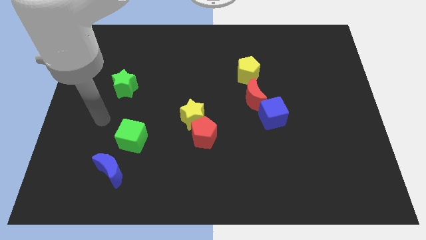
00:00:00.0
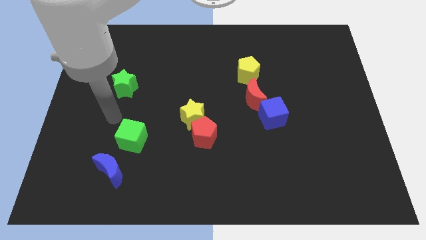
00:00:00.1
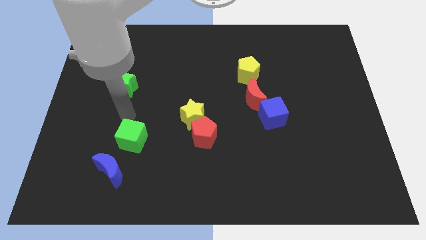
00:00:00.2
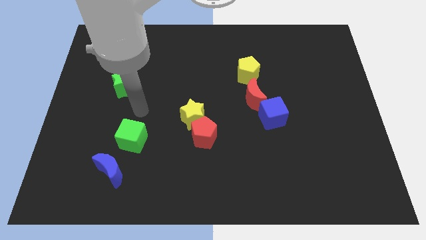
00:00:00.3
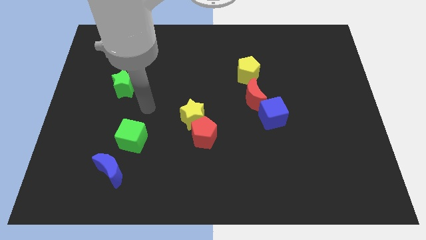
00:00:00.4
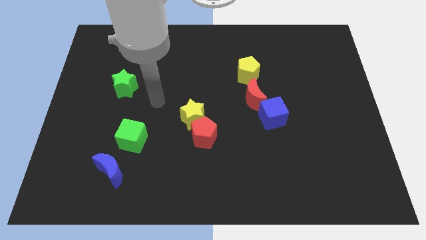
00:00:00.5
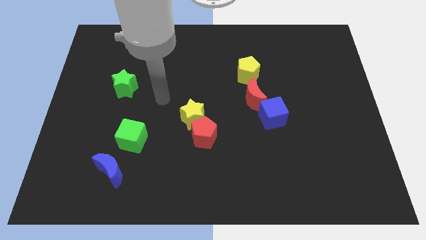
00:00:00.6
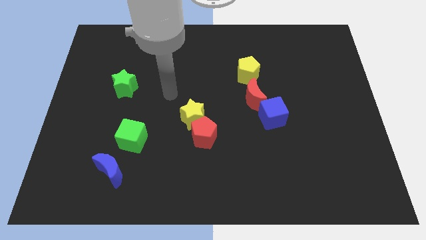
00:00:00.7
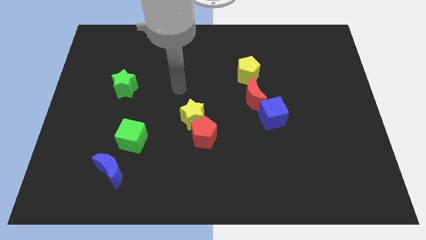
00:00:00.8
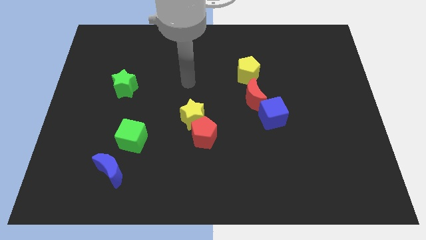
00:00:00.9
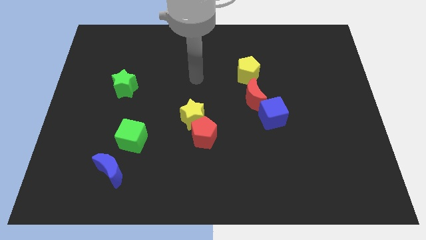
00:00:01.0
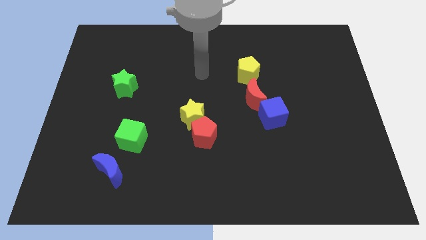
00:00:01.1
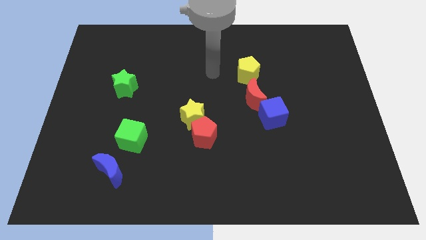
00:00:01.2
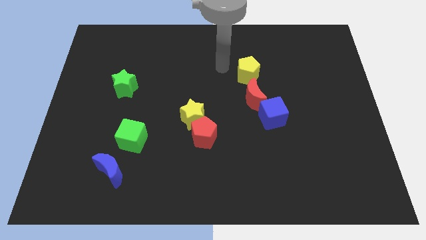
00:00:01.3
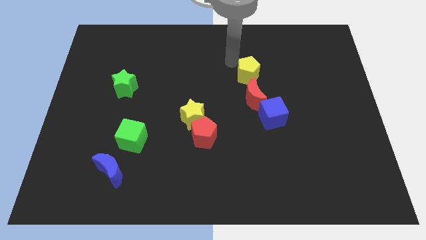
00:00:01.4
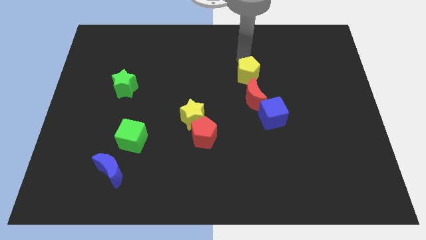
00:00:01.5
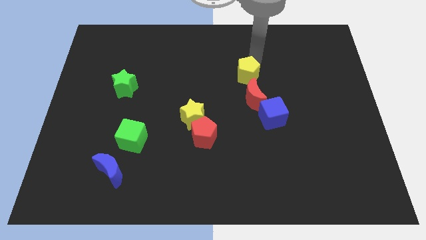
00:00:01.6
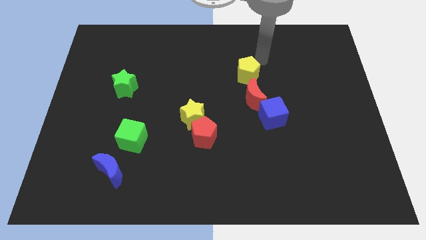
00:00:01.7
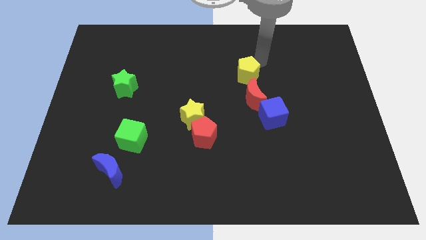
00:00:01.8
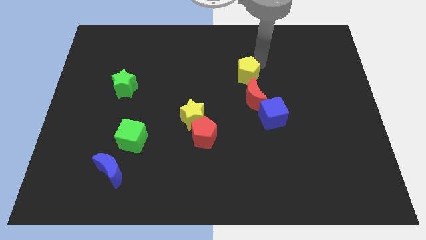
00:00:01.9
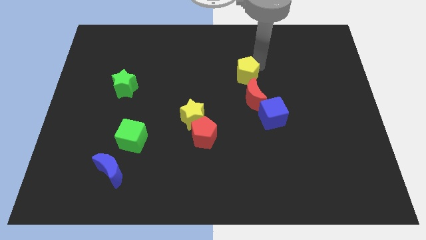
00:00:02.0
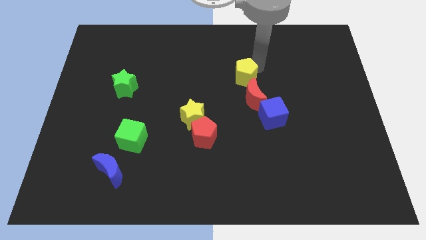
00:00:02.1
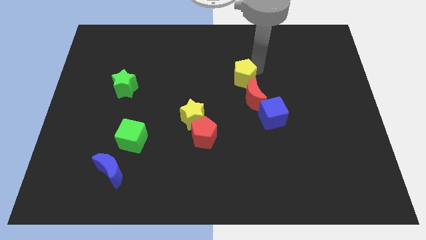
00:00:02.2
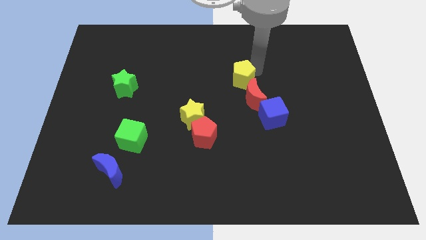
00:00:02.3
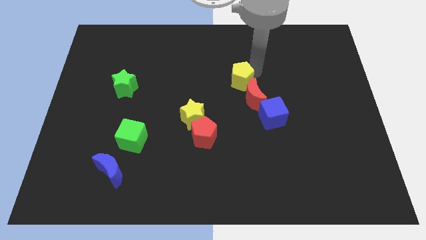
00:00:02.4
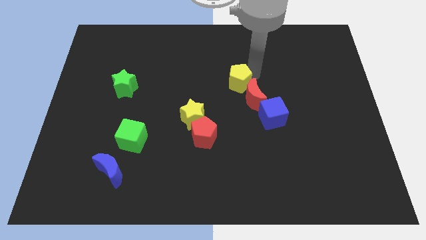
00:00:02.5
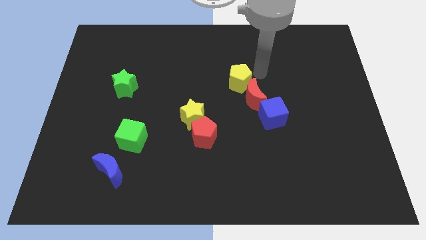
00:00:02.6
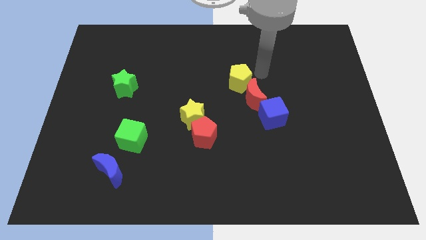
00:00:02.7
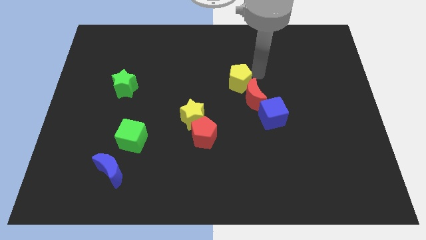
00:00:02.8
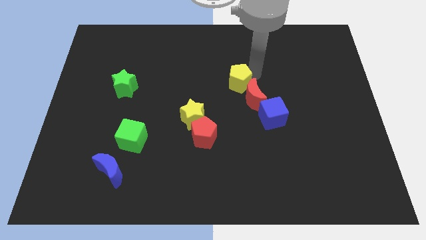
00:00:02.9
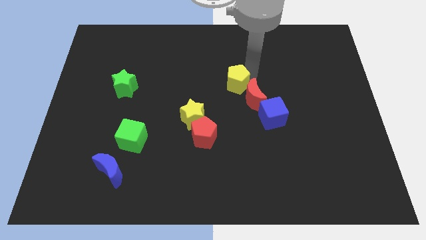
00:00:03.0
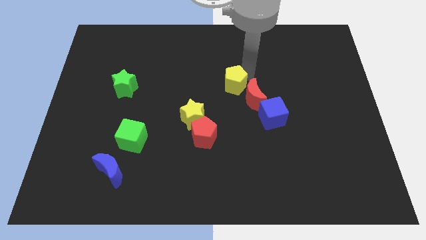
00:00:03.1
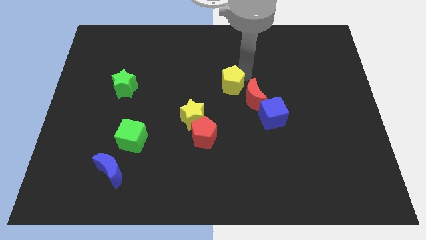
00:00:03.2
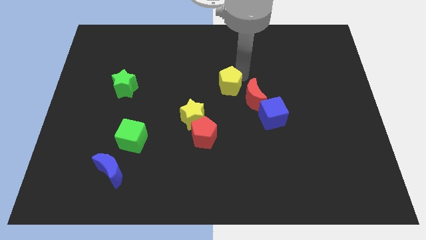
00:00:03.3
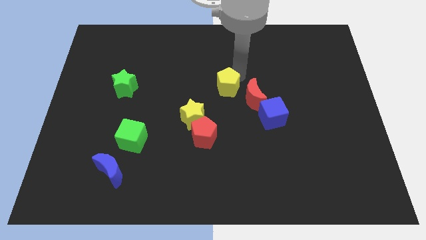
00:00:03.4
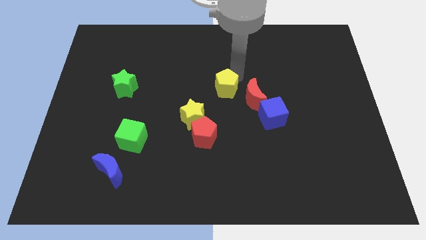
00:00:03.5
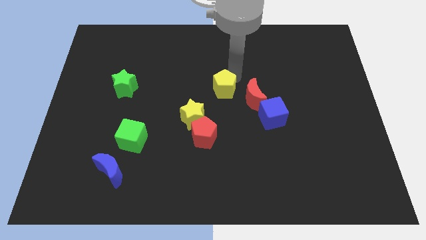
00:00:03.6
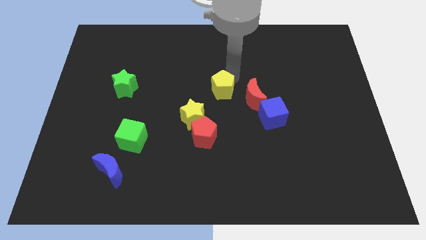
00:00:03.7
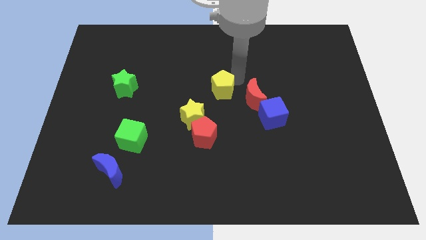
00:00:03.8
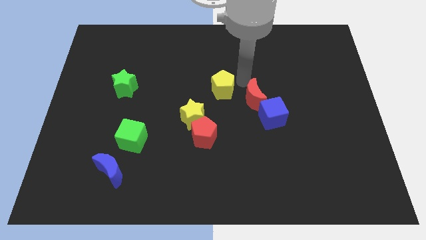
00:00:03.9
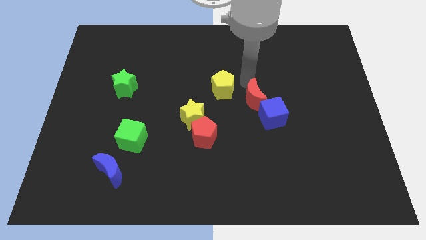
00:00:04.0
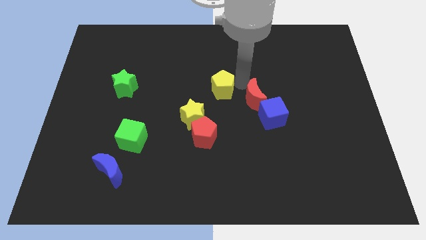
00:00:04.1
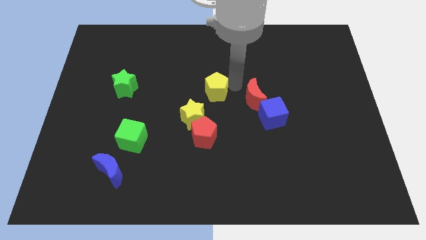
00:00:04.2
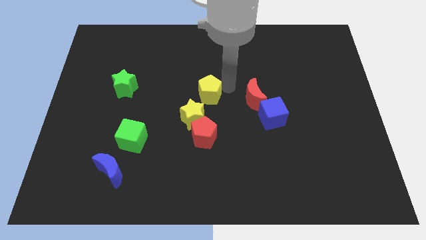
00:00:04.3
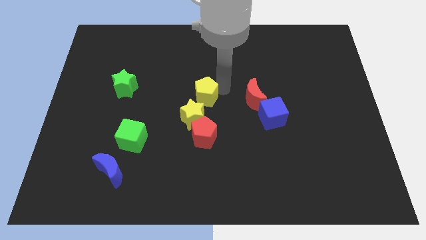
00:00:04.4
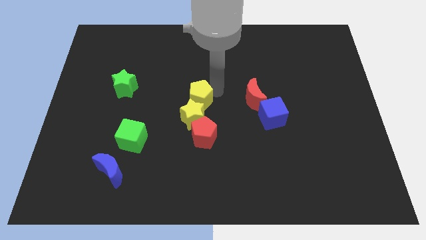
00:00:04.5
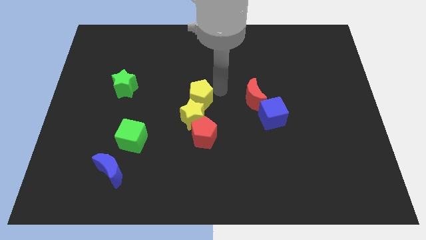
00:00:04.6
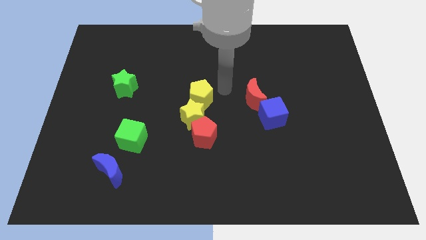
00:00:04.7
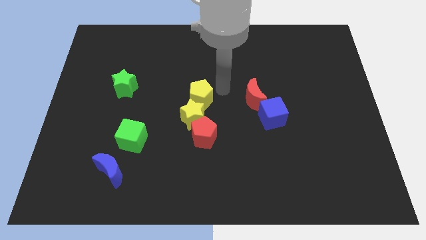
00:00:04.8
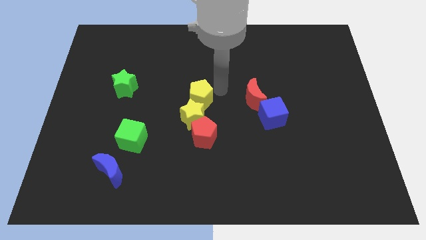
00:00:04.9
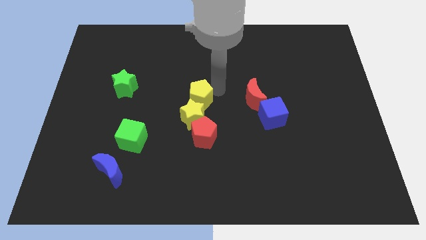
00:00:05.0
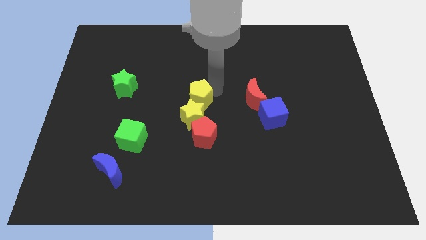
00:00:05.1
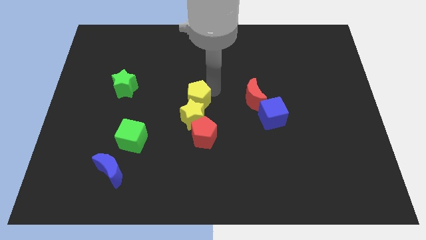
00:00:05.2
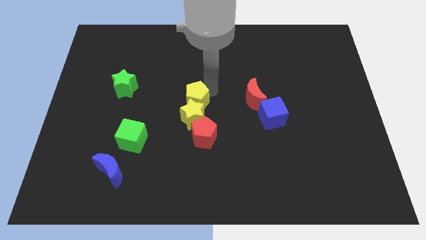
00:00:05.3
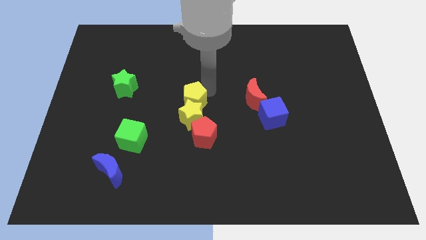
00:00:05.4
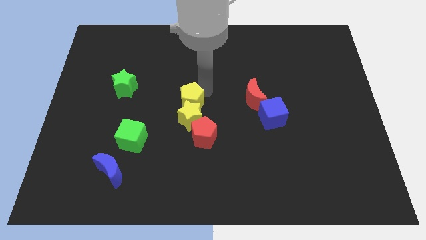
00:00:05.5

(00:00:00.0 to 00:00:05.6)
push the yellow pentagon diagonally up and to the left of the red pentagon

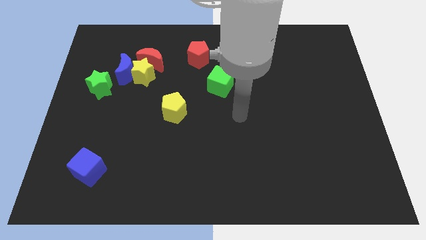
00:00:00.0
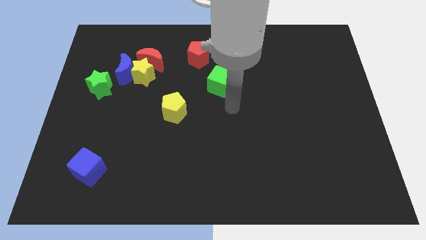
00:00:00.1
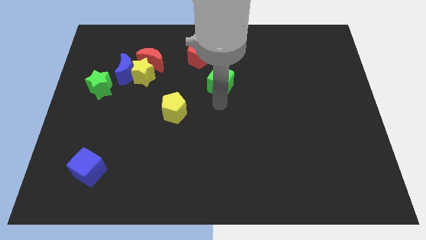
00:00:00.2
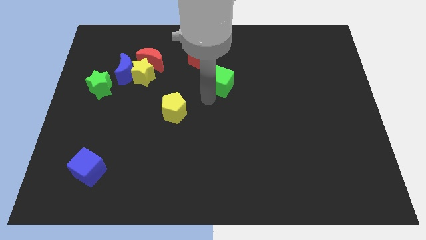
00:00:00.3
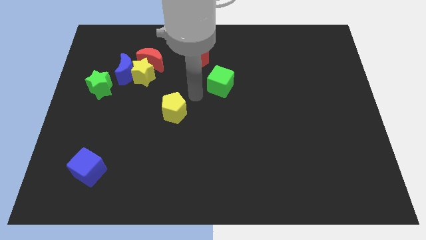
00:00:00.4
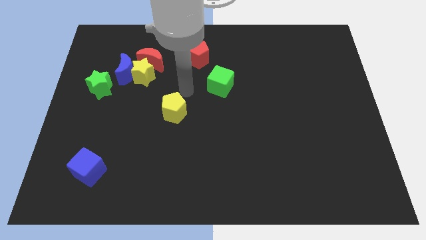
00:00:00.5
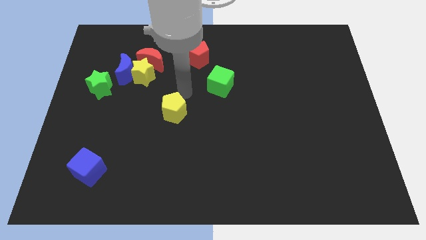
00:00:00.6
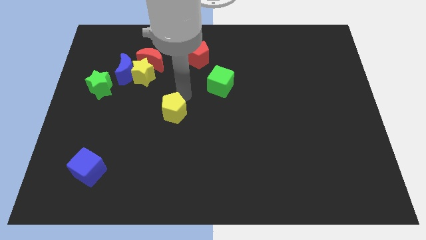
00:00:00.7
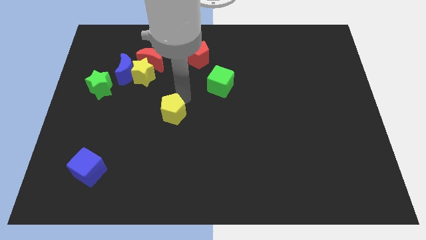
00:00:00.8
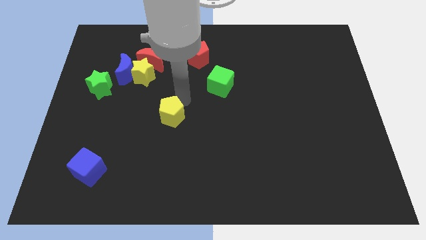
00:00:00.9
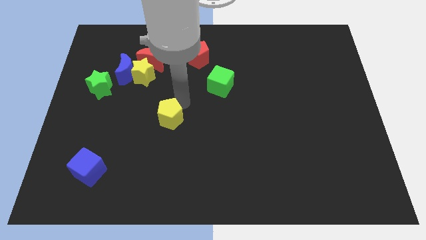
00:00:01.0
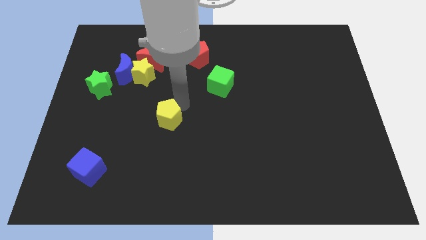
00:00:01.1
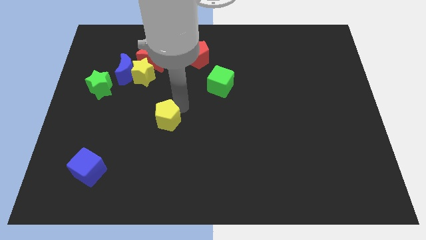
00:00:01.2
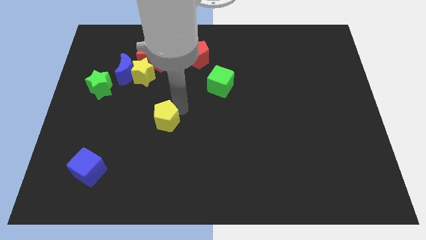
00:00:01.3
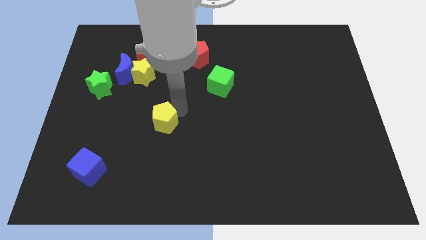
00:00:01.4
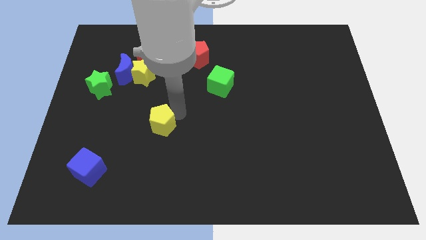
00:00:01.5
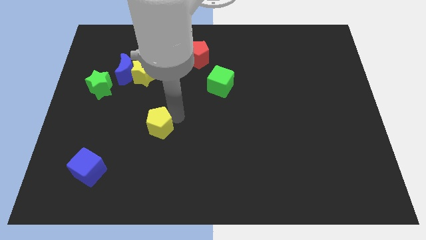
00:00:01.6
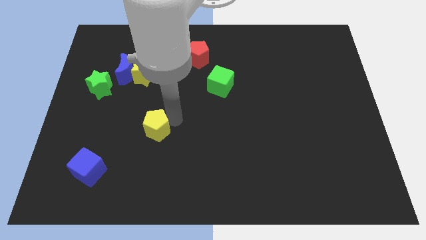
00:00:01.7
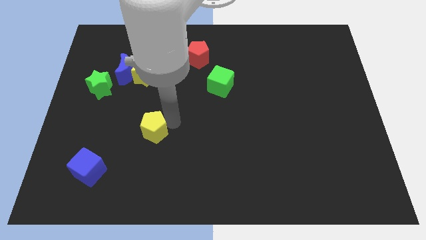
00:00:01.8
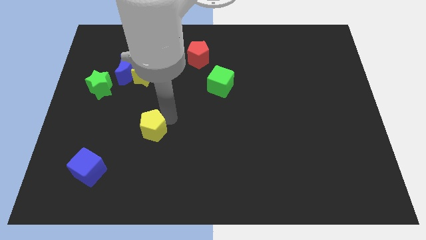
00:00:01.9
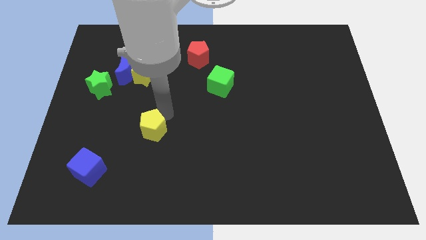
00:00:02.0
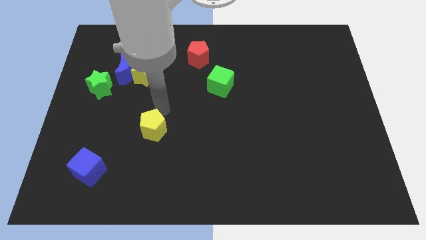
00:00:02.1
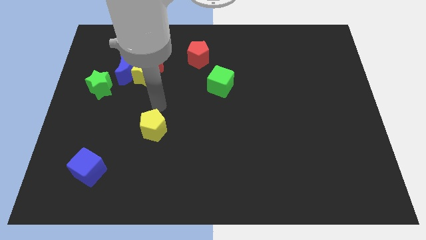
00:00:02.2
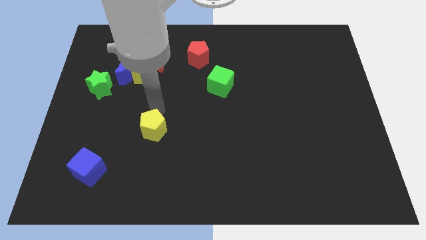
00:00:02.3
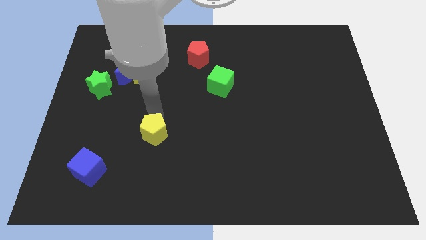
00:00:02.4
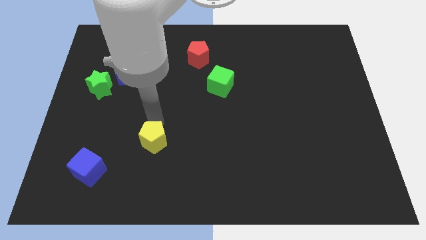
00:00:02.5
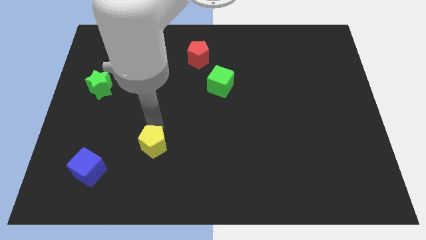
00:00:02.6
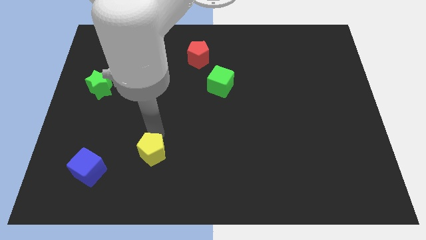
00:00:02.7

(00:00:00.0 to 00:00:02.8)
move the yellow pentagon right of the blue cube
